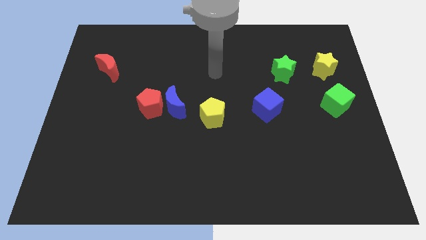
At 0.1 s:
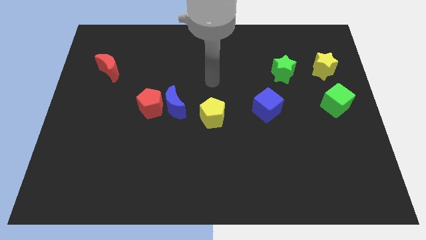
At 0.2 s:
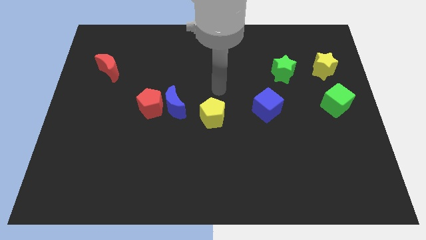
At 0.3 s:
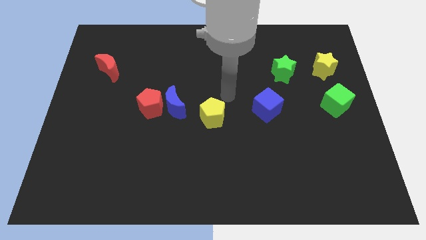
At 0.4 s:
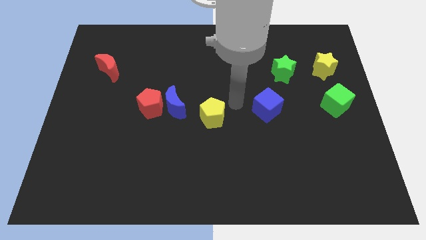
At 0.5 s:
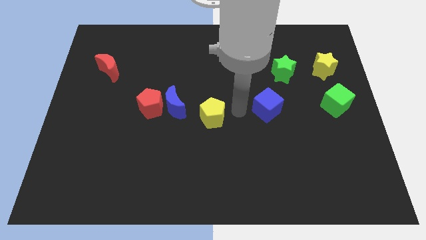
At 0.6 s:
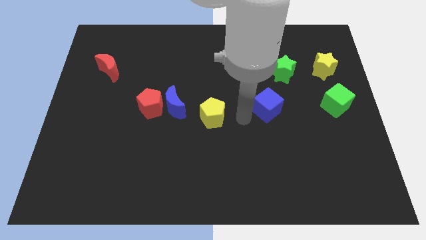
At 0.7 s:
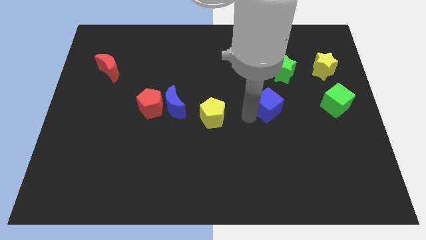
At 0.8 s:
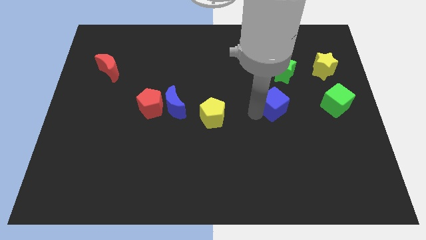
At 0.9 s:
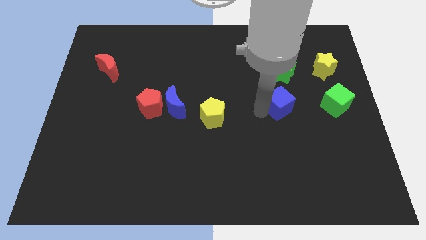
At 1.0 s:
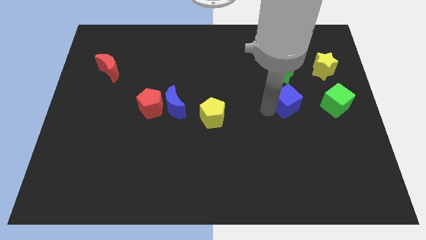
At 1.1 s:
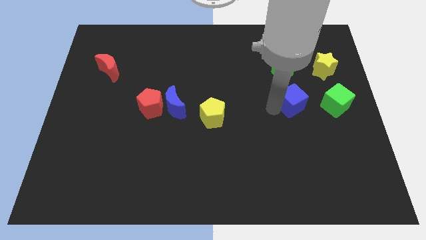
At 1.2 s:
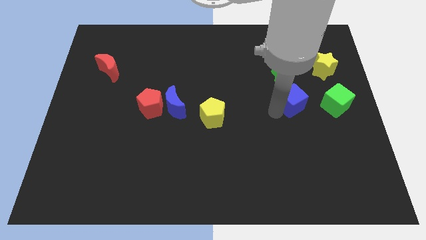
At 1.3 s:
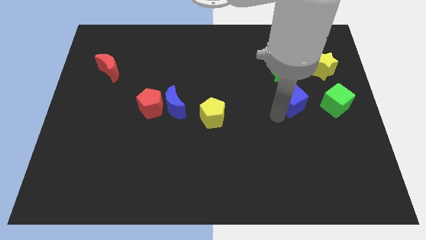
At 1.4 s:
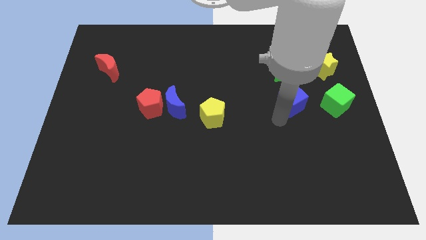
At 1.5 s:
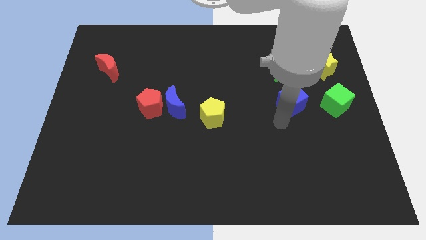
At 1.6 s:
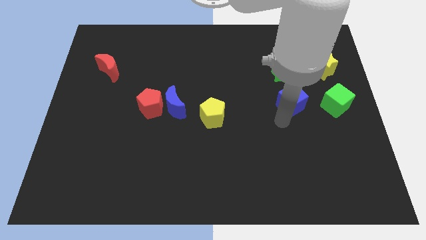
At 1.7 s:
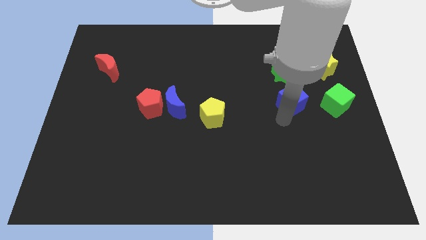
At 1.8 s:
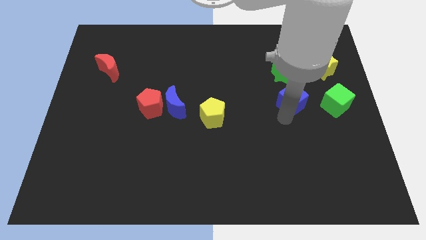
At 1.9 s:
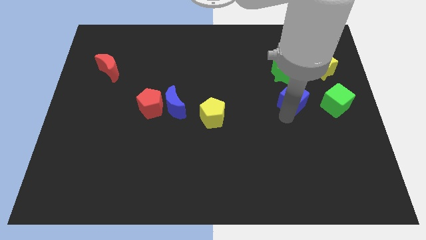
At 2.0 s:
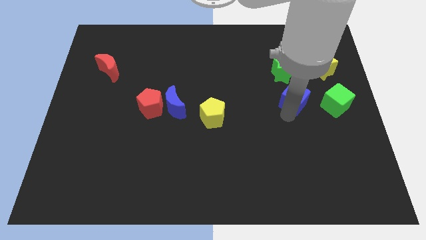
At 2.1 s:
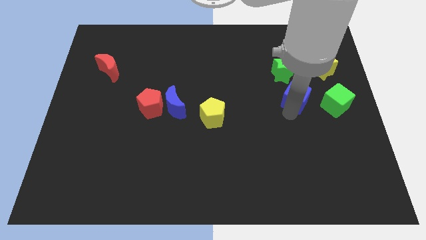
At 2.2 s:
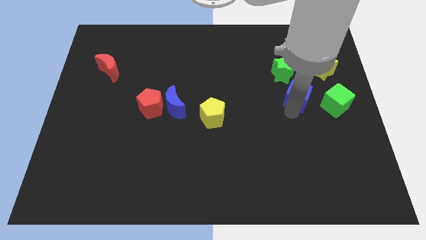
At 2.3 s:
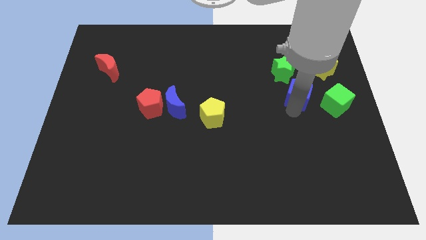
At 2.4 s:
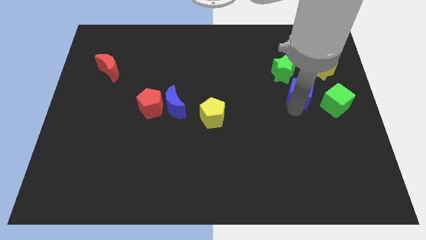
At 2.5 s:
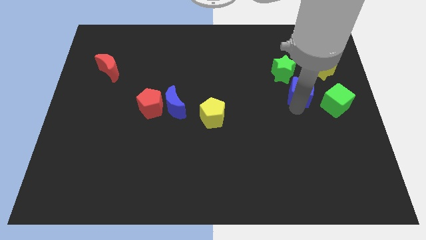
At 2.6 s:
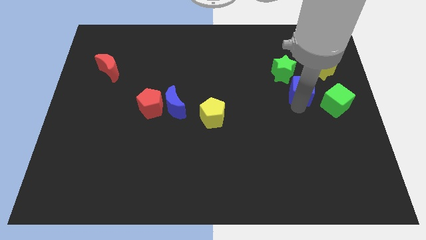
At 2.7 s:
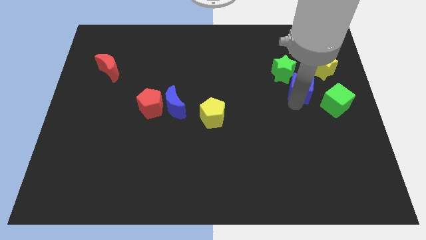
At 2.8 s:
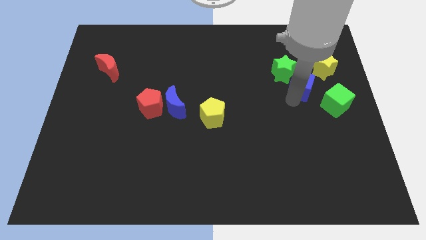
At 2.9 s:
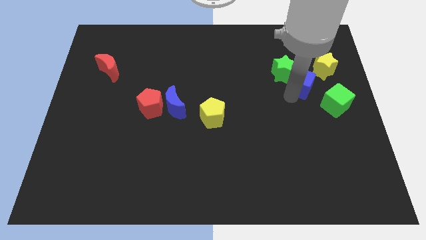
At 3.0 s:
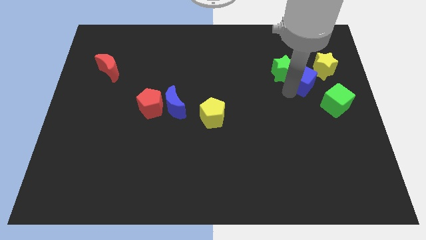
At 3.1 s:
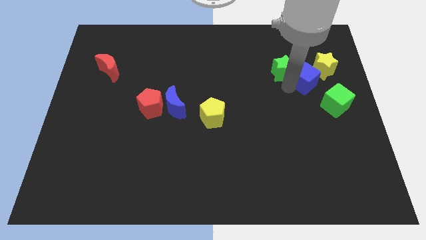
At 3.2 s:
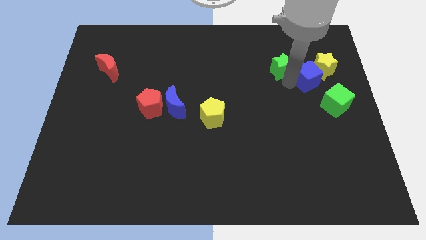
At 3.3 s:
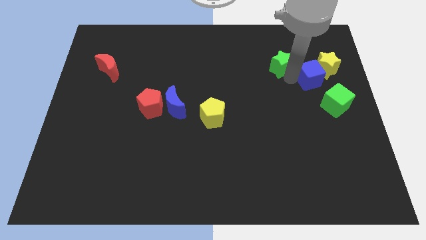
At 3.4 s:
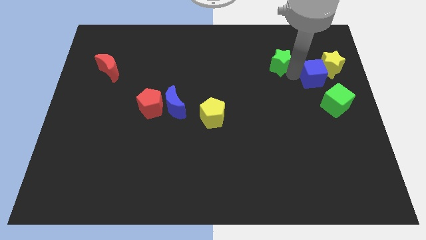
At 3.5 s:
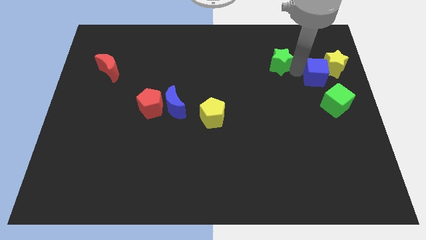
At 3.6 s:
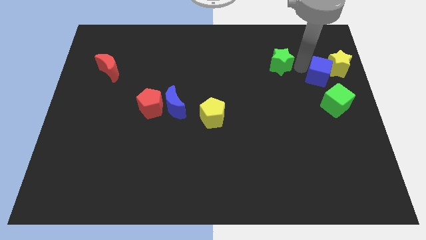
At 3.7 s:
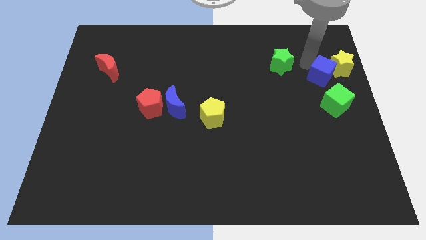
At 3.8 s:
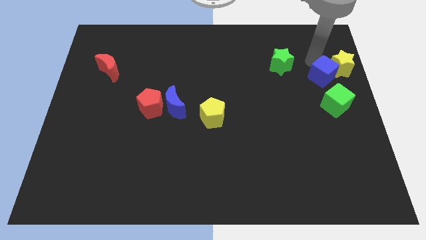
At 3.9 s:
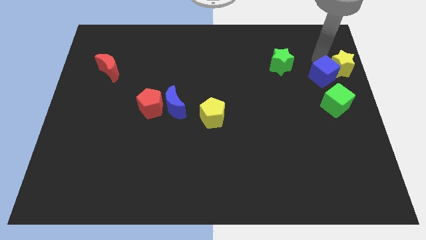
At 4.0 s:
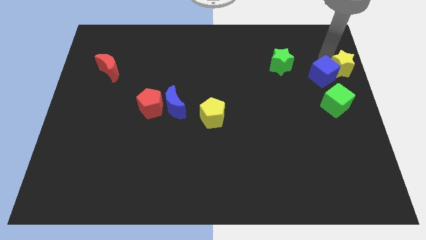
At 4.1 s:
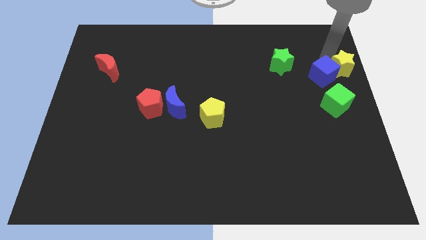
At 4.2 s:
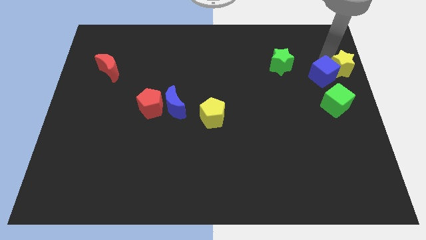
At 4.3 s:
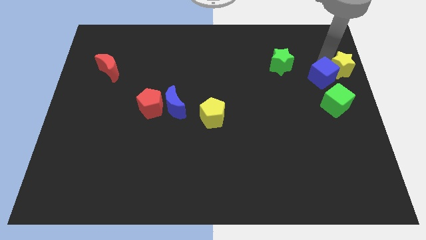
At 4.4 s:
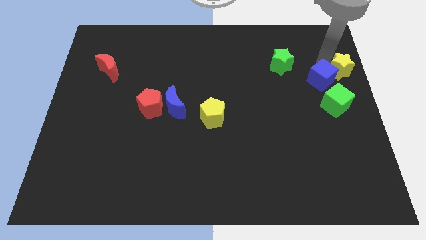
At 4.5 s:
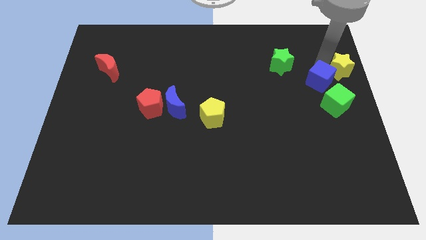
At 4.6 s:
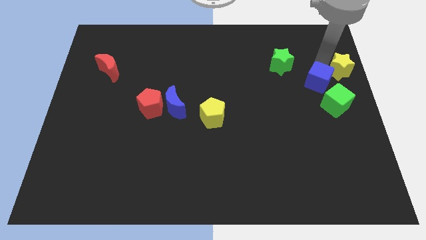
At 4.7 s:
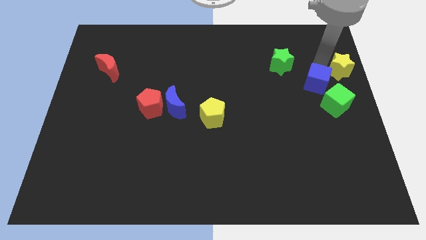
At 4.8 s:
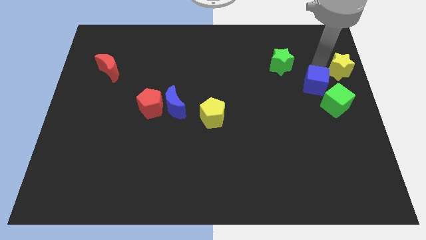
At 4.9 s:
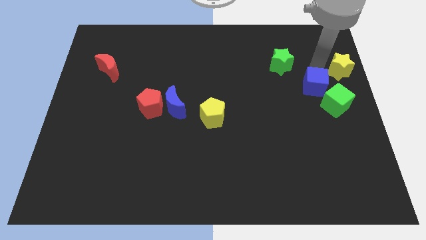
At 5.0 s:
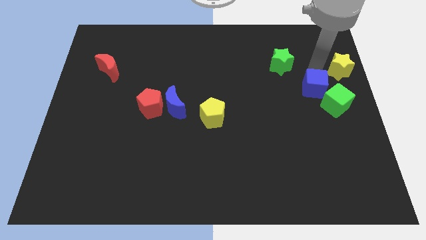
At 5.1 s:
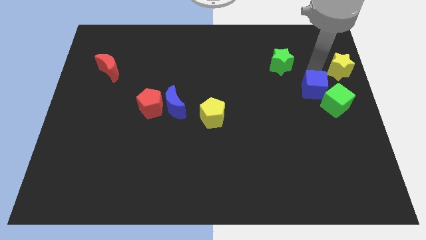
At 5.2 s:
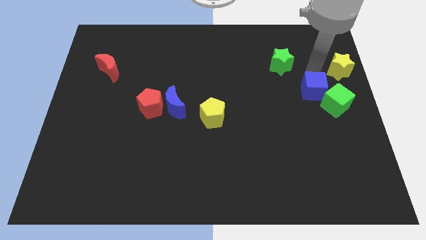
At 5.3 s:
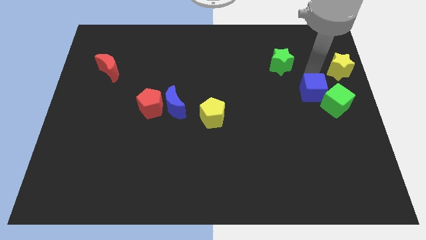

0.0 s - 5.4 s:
move the blue cube to the green cube

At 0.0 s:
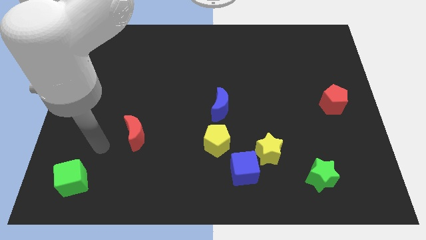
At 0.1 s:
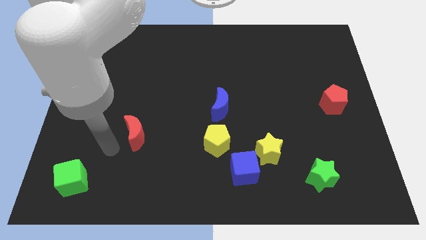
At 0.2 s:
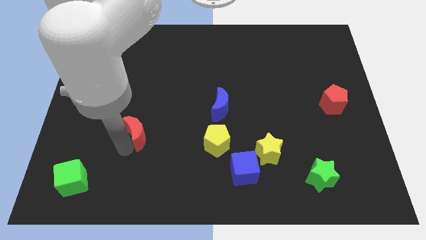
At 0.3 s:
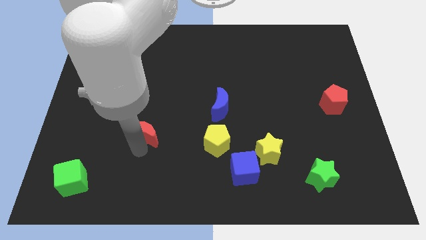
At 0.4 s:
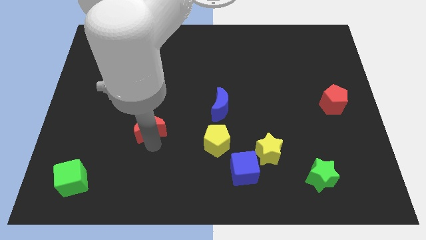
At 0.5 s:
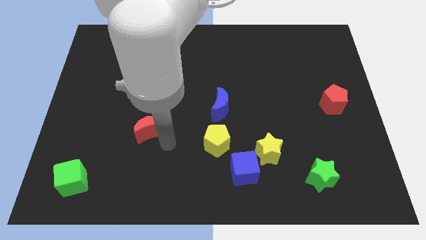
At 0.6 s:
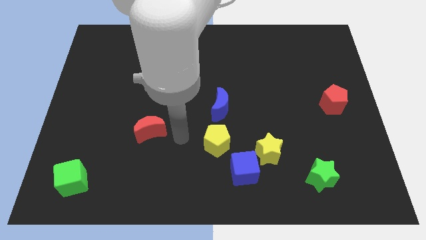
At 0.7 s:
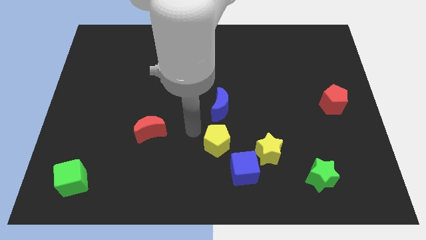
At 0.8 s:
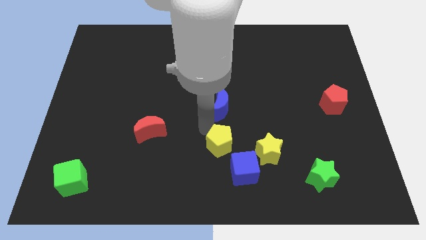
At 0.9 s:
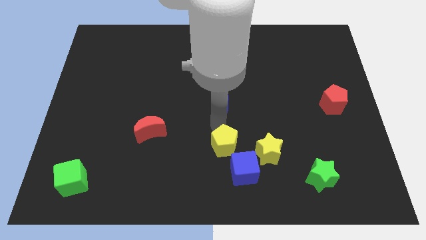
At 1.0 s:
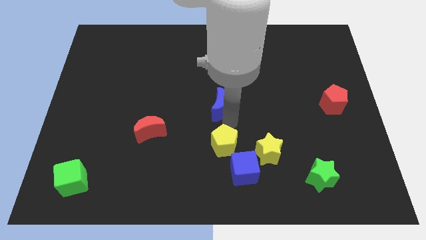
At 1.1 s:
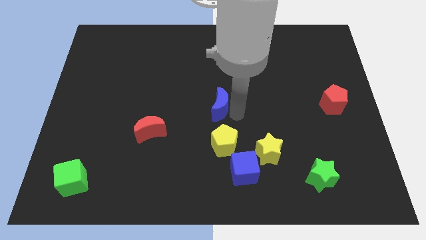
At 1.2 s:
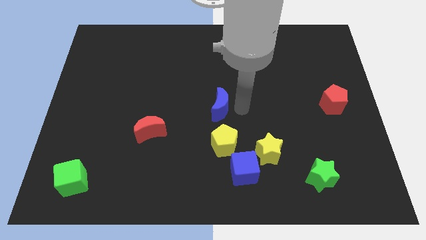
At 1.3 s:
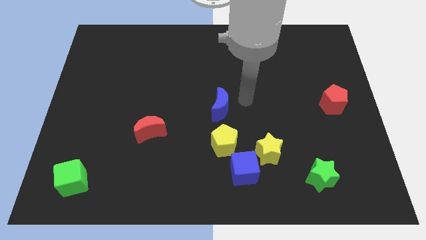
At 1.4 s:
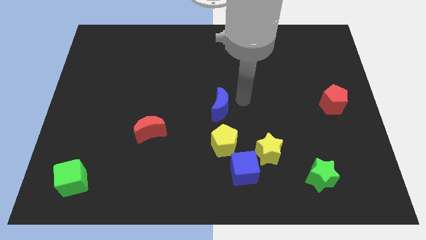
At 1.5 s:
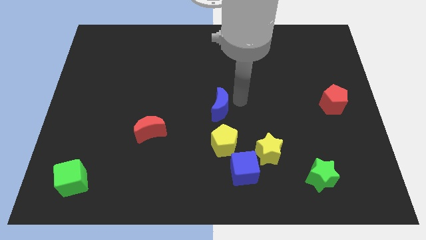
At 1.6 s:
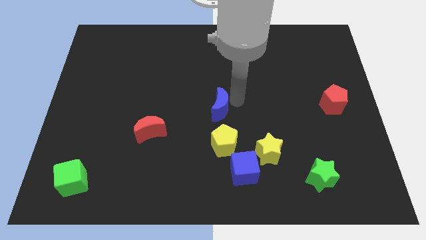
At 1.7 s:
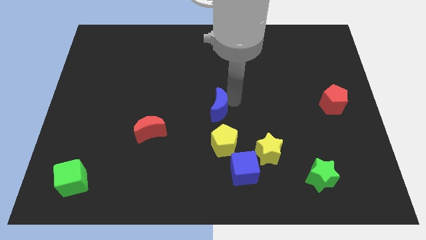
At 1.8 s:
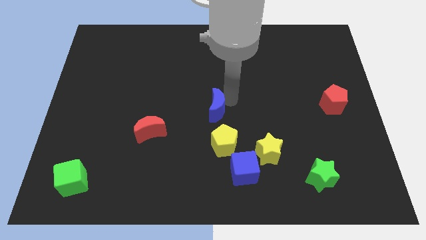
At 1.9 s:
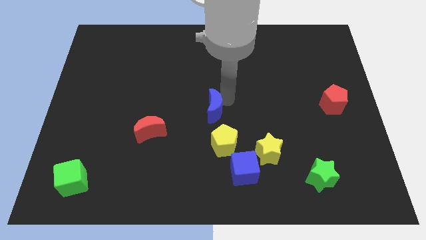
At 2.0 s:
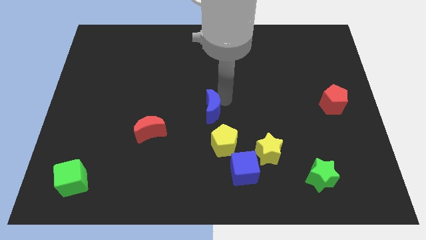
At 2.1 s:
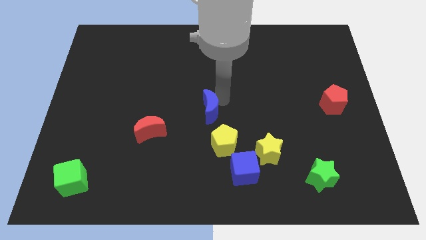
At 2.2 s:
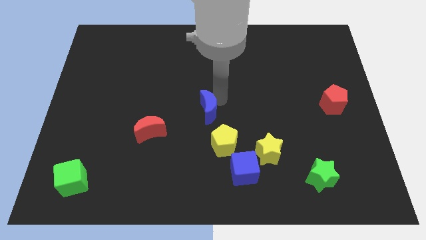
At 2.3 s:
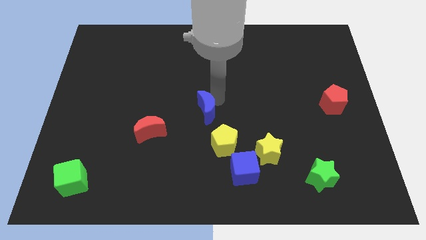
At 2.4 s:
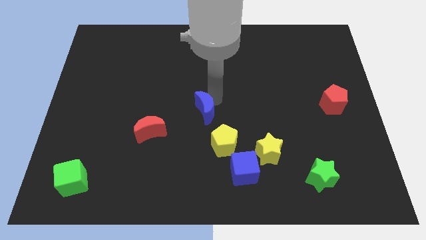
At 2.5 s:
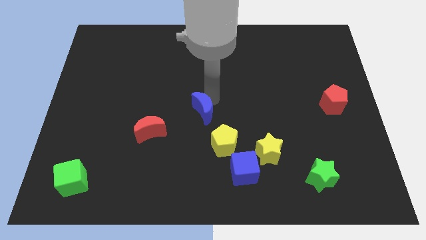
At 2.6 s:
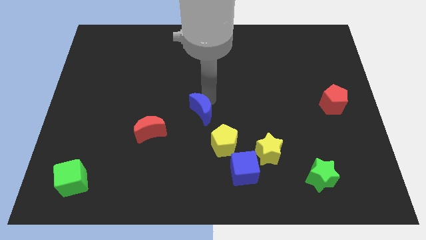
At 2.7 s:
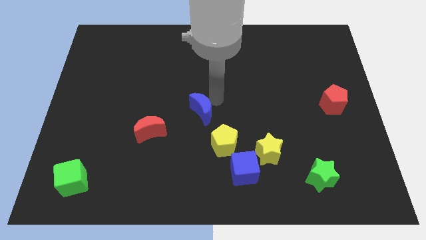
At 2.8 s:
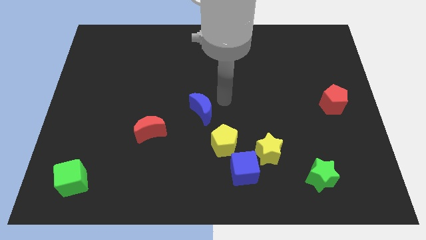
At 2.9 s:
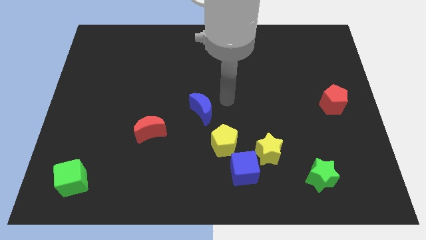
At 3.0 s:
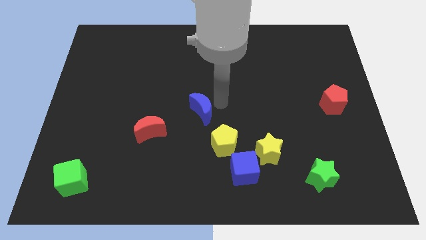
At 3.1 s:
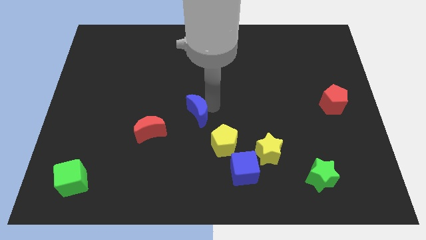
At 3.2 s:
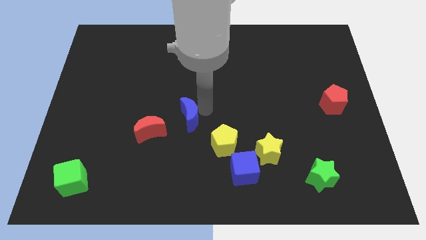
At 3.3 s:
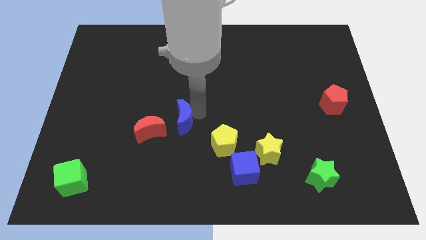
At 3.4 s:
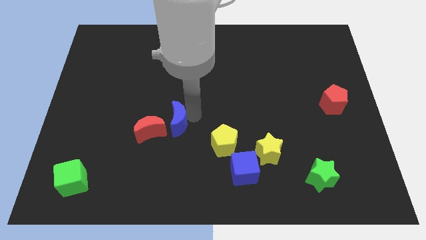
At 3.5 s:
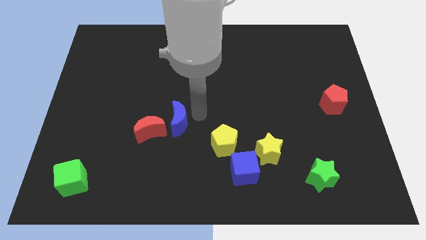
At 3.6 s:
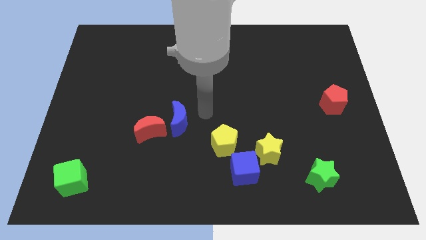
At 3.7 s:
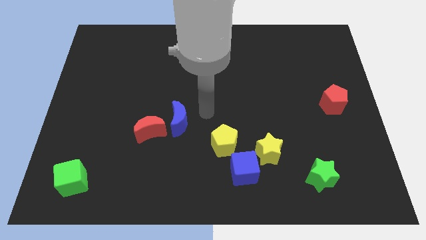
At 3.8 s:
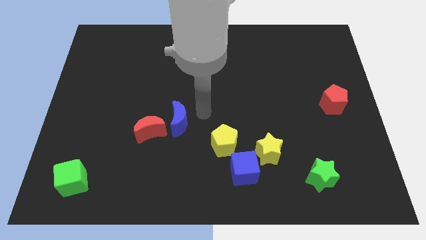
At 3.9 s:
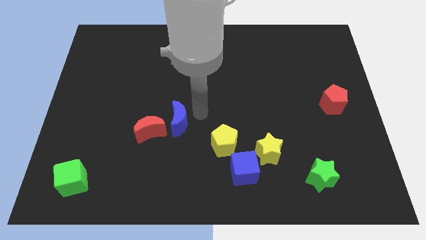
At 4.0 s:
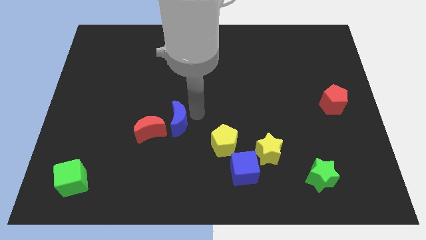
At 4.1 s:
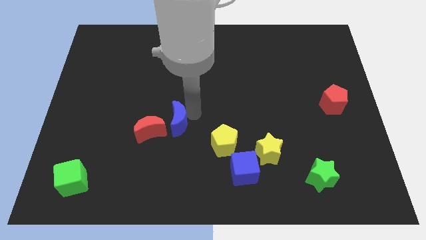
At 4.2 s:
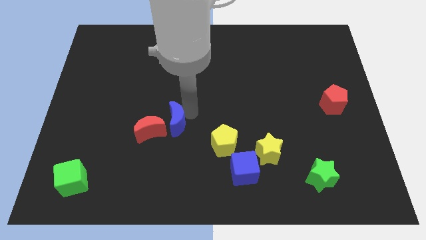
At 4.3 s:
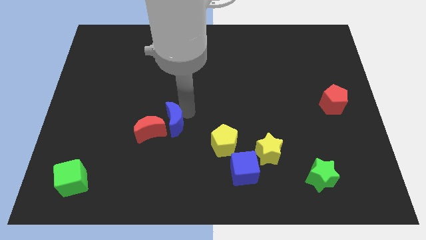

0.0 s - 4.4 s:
put the blue moon towards the red moon
